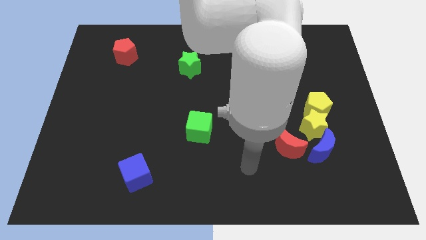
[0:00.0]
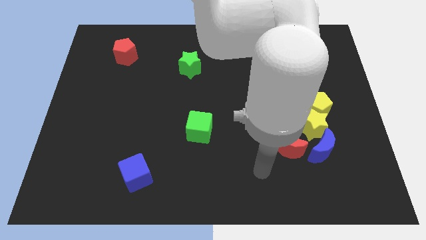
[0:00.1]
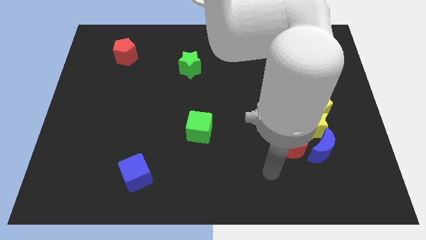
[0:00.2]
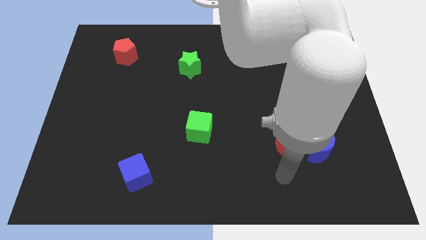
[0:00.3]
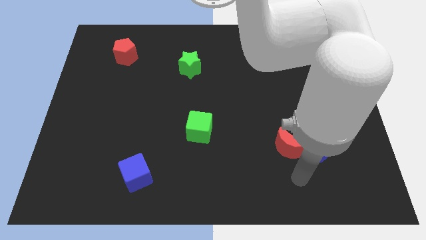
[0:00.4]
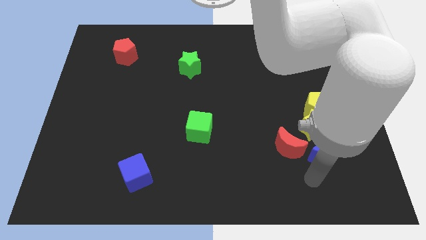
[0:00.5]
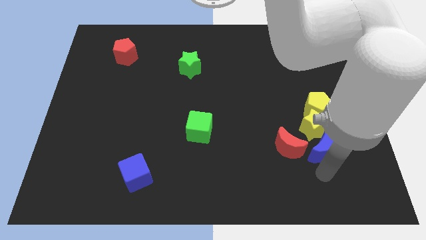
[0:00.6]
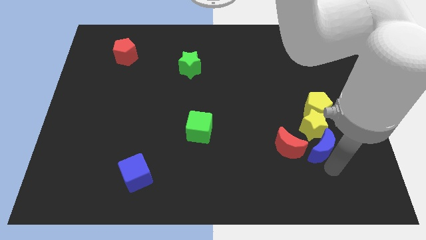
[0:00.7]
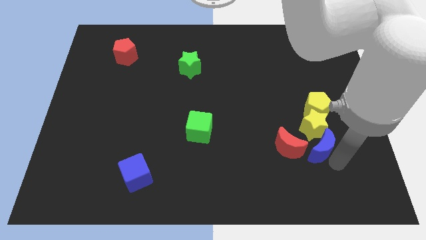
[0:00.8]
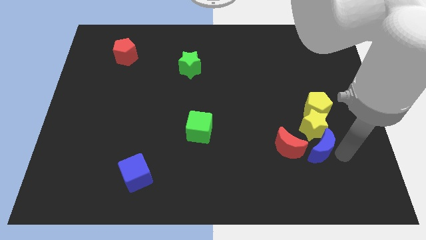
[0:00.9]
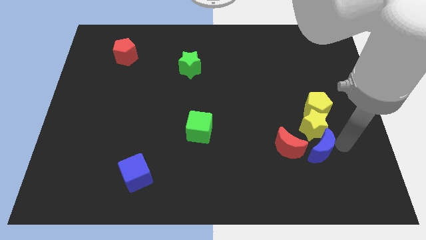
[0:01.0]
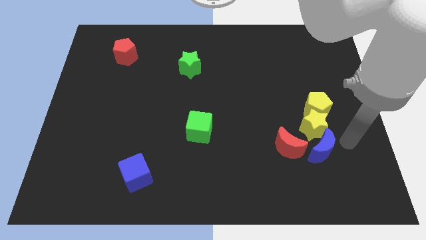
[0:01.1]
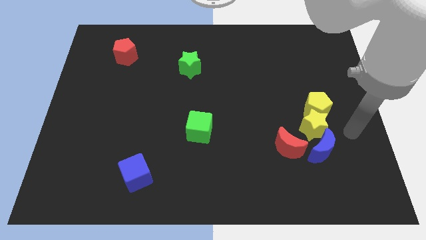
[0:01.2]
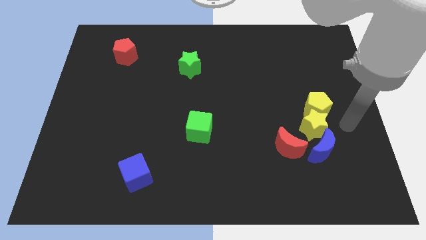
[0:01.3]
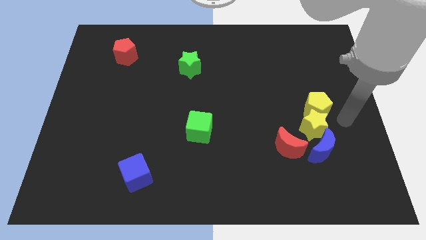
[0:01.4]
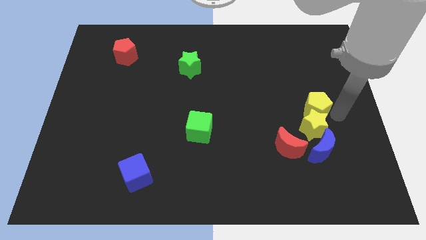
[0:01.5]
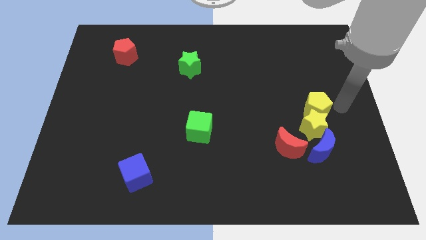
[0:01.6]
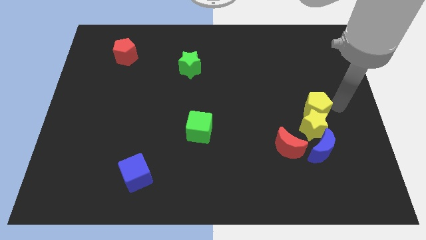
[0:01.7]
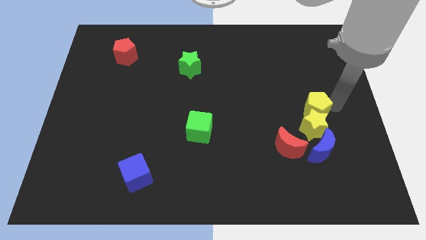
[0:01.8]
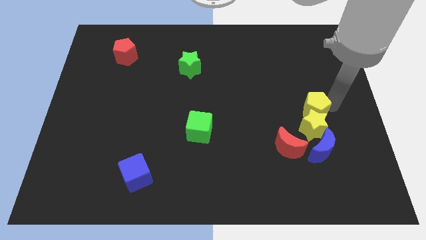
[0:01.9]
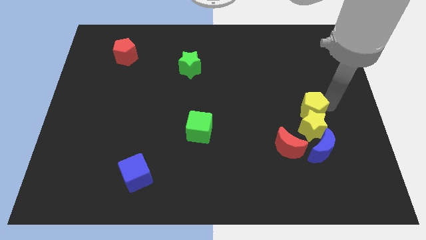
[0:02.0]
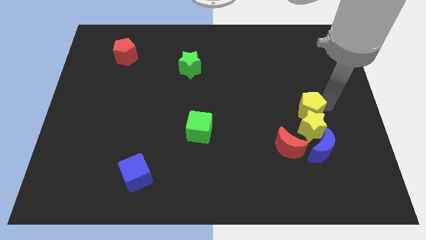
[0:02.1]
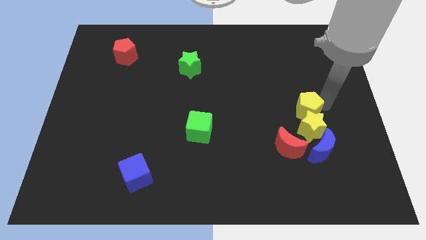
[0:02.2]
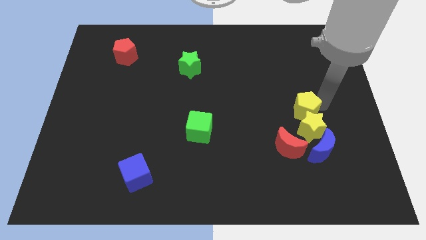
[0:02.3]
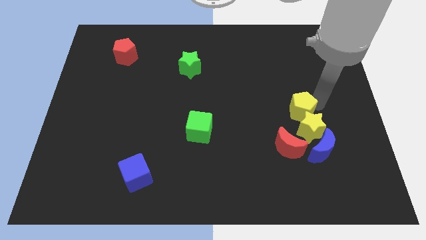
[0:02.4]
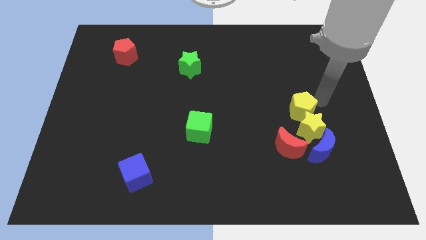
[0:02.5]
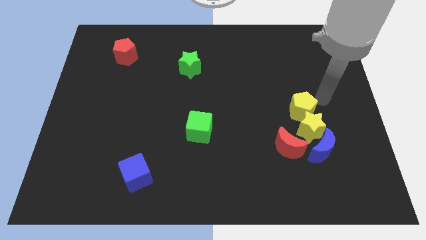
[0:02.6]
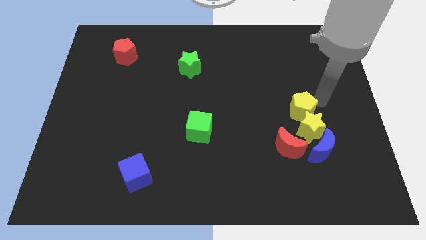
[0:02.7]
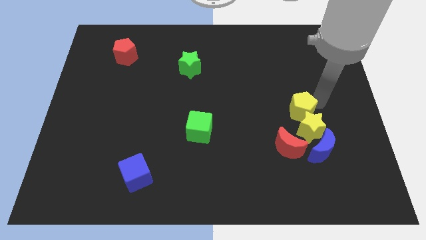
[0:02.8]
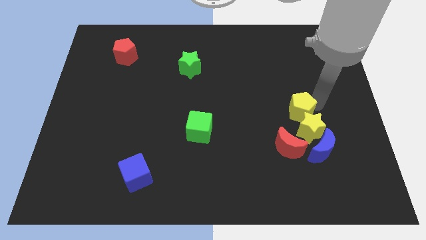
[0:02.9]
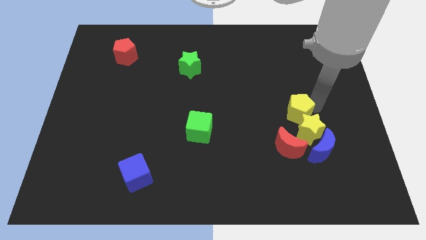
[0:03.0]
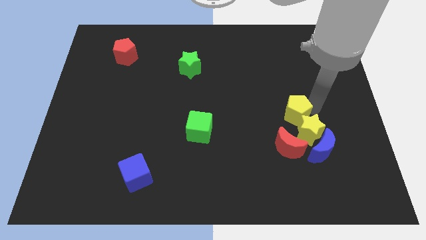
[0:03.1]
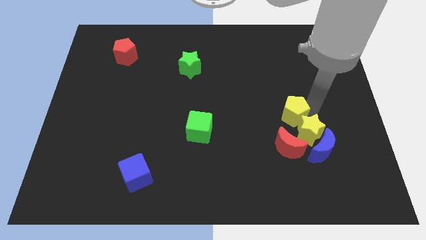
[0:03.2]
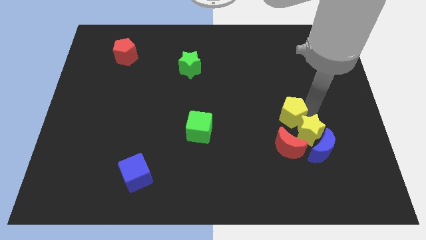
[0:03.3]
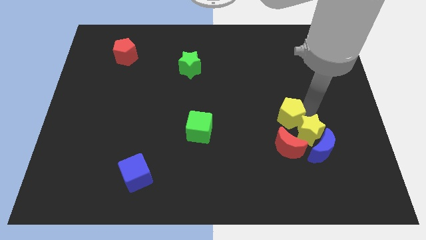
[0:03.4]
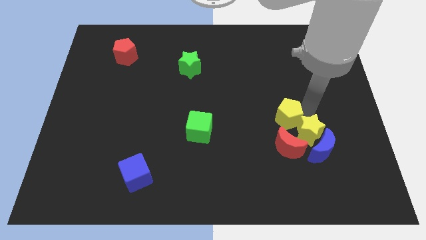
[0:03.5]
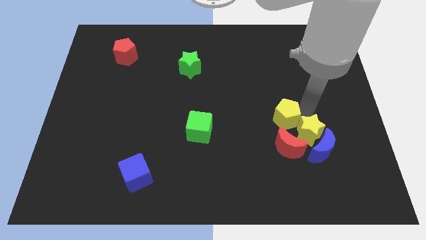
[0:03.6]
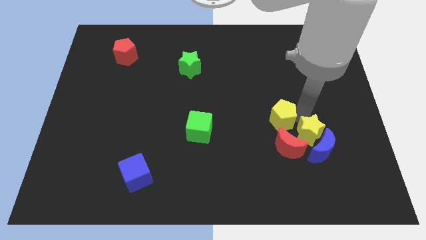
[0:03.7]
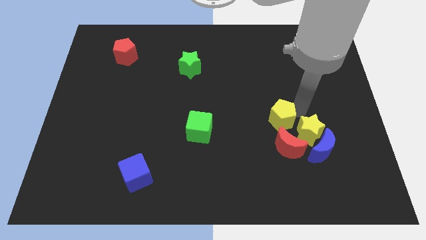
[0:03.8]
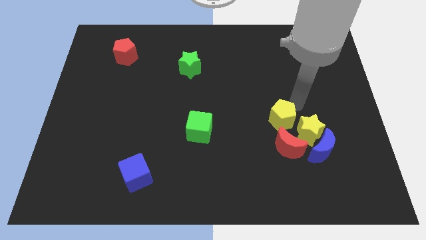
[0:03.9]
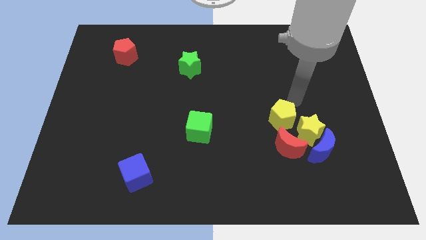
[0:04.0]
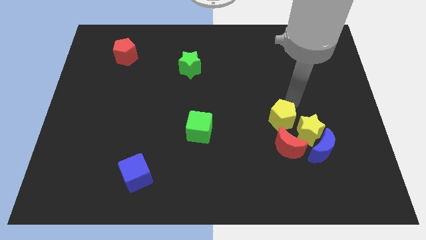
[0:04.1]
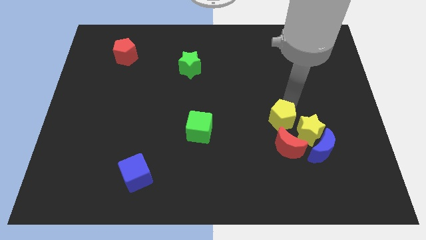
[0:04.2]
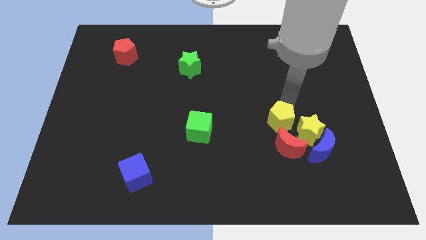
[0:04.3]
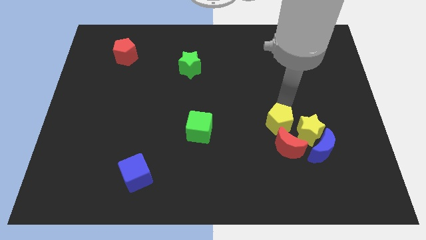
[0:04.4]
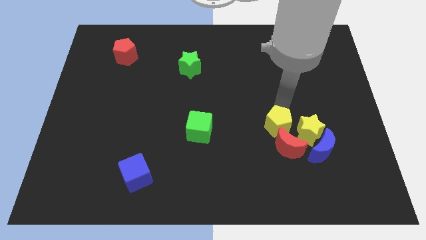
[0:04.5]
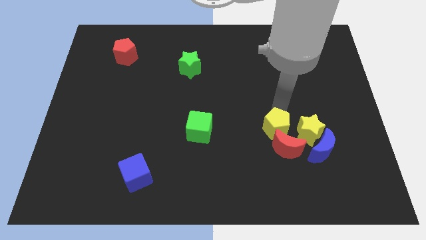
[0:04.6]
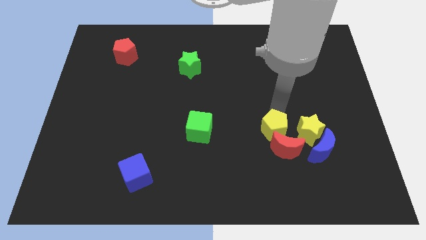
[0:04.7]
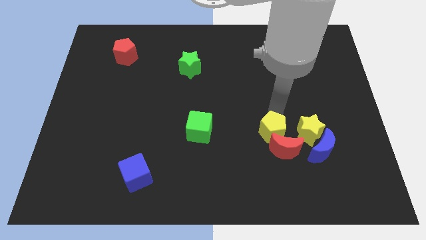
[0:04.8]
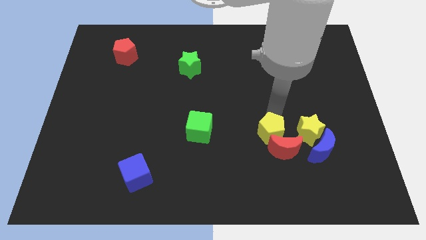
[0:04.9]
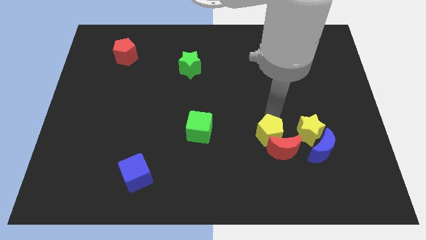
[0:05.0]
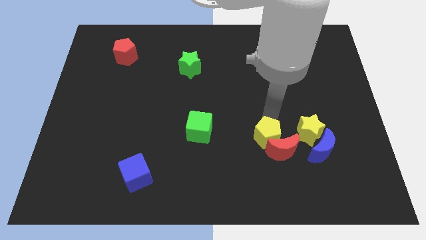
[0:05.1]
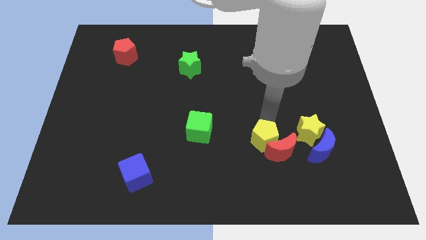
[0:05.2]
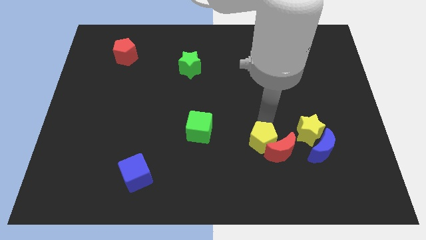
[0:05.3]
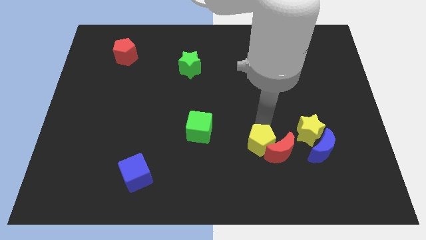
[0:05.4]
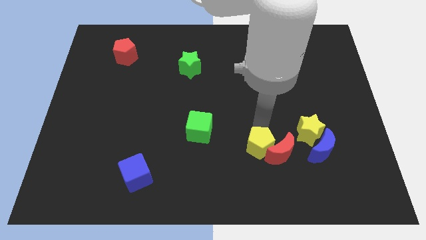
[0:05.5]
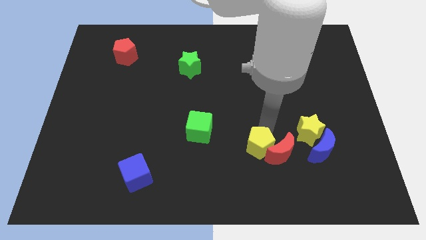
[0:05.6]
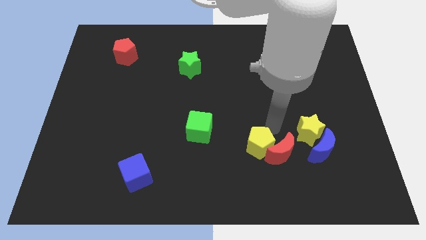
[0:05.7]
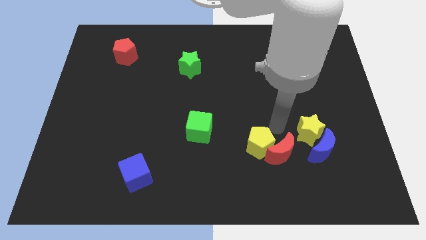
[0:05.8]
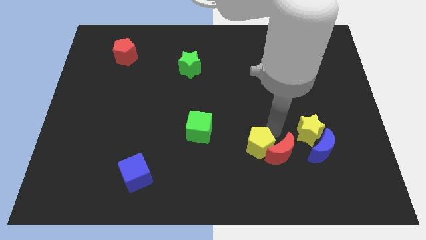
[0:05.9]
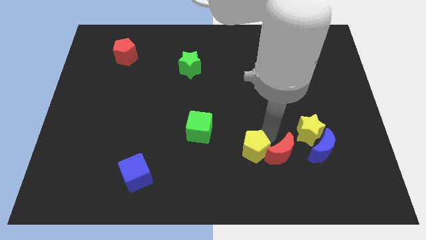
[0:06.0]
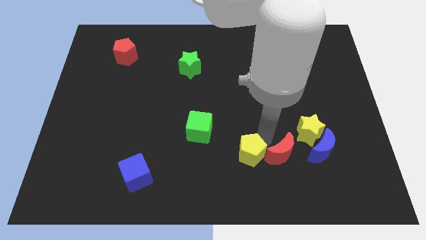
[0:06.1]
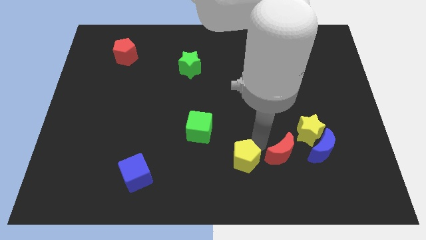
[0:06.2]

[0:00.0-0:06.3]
push the yellow pentagon to the bottom

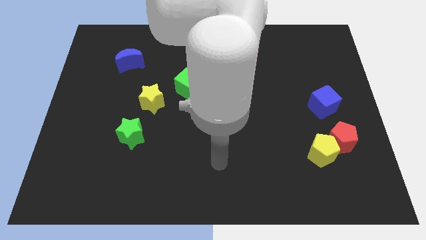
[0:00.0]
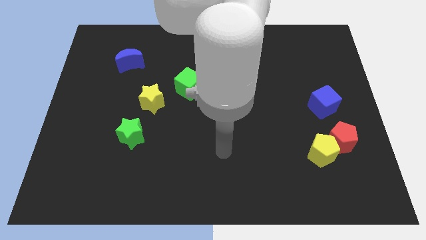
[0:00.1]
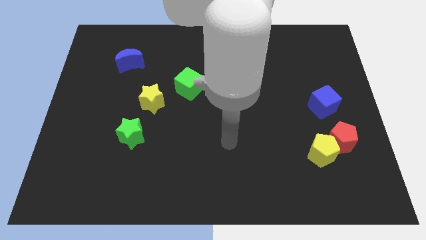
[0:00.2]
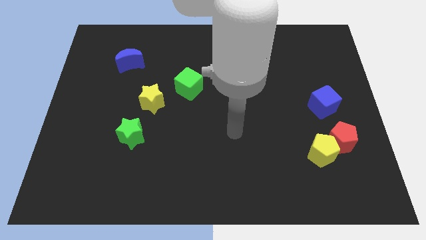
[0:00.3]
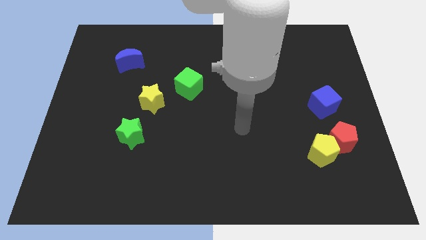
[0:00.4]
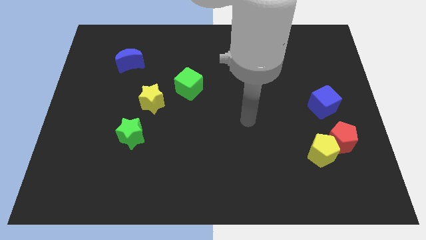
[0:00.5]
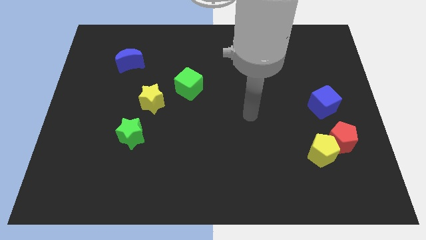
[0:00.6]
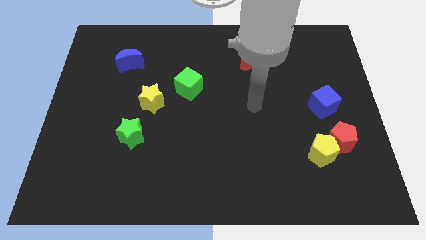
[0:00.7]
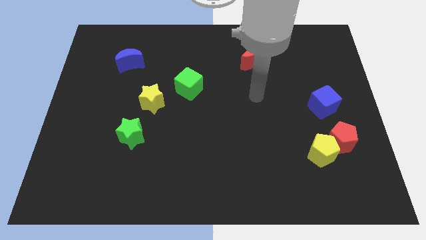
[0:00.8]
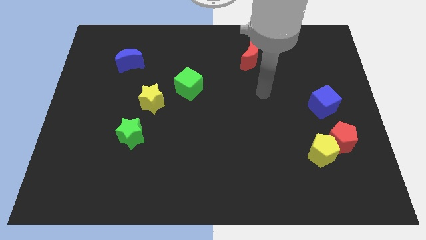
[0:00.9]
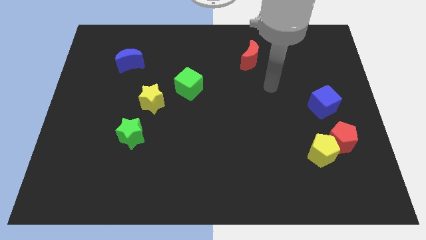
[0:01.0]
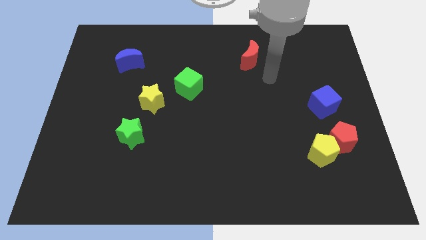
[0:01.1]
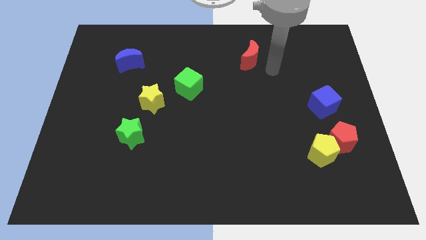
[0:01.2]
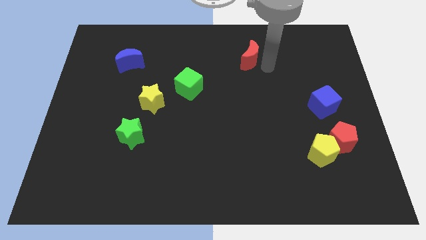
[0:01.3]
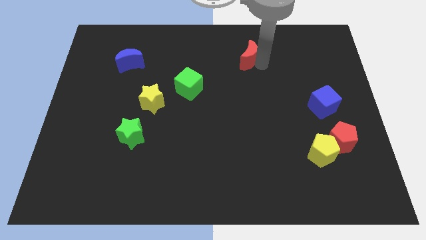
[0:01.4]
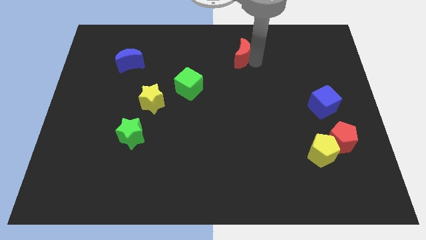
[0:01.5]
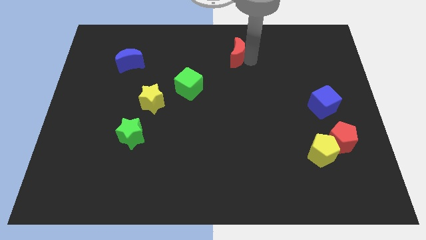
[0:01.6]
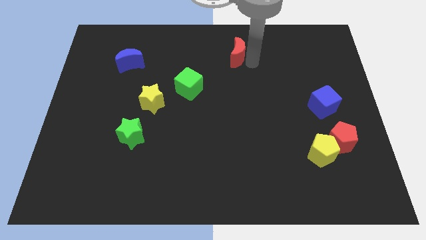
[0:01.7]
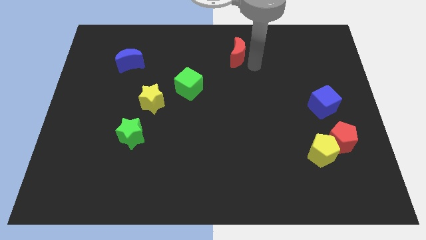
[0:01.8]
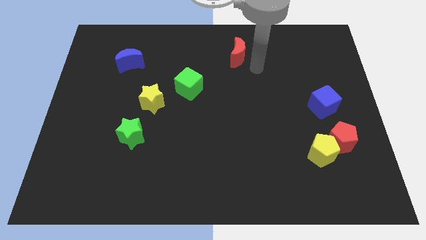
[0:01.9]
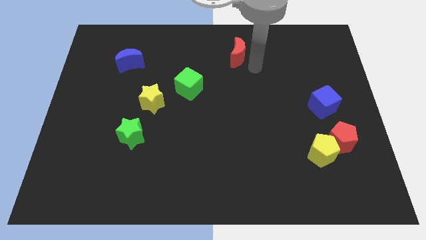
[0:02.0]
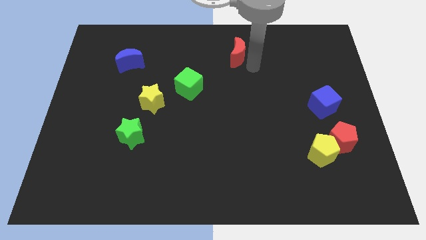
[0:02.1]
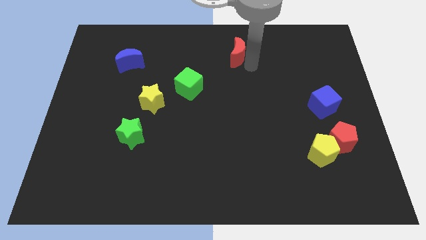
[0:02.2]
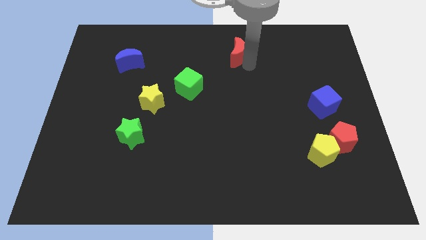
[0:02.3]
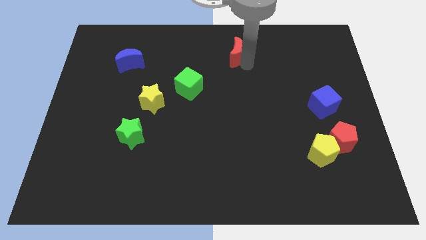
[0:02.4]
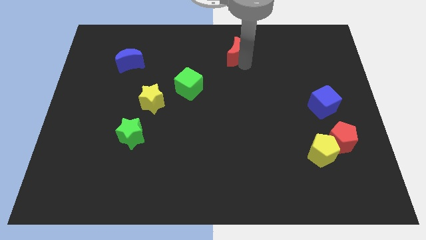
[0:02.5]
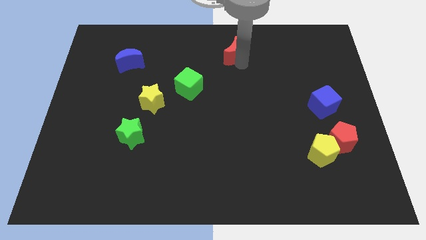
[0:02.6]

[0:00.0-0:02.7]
push the red moon to the towards your base
